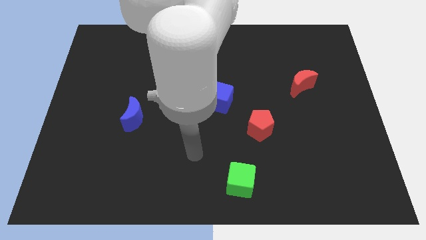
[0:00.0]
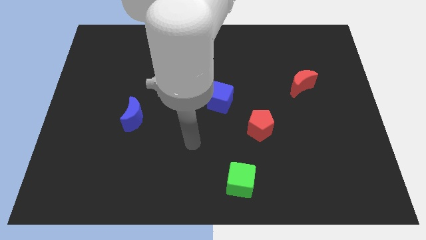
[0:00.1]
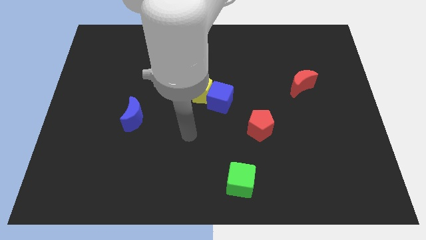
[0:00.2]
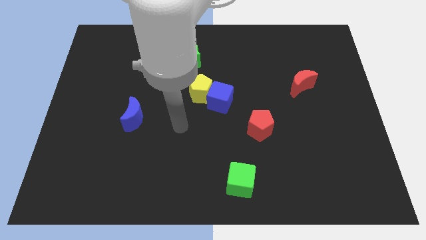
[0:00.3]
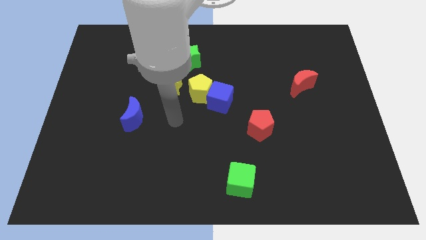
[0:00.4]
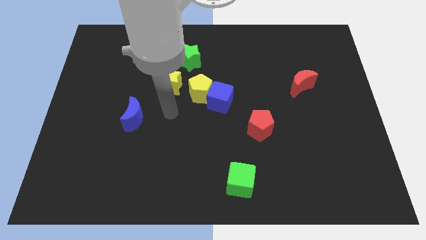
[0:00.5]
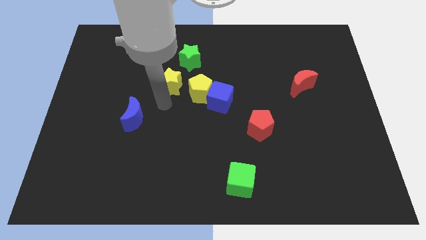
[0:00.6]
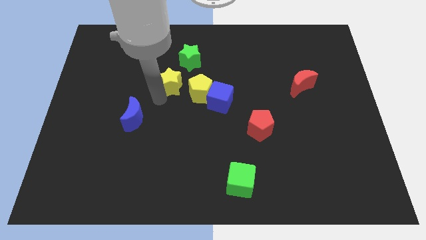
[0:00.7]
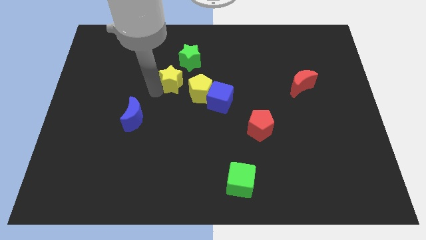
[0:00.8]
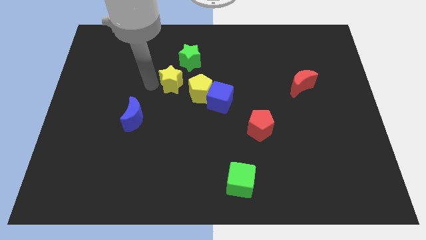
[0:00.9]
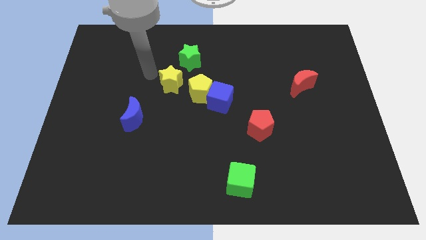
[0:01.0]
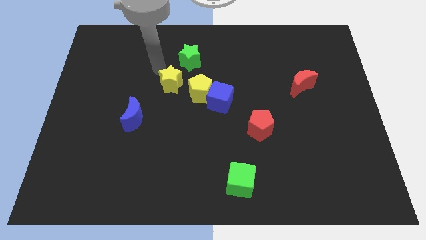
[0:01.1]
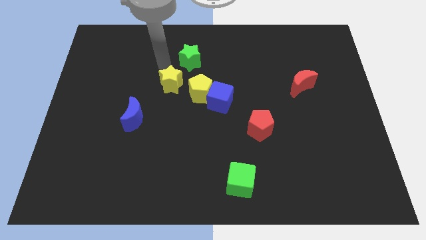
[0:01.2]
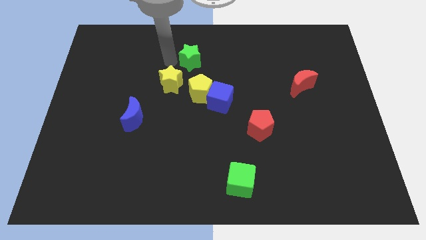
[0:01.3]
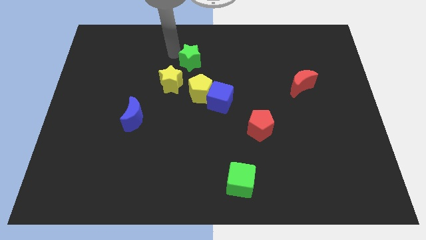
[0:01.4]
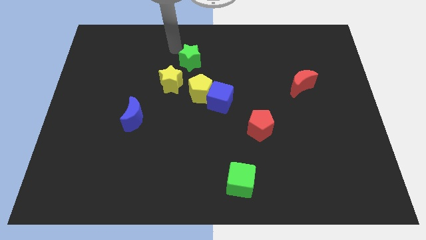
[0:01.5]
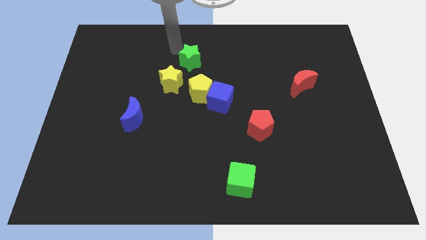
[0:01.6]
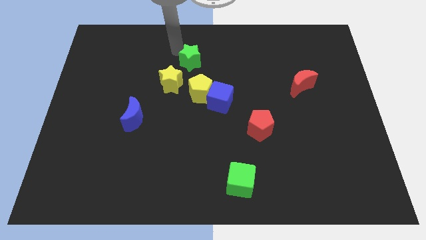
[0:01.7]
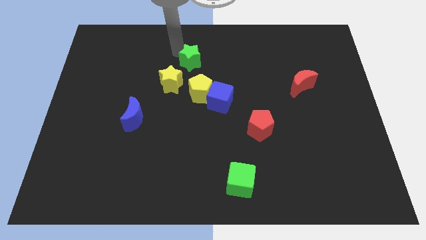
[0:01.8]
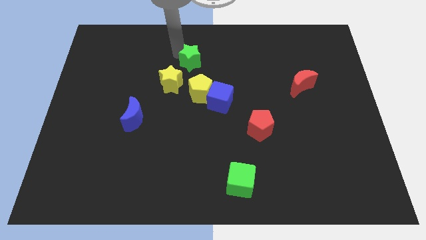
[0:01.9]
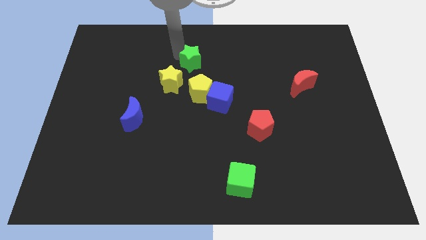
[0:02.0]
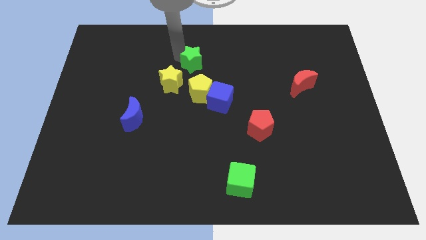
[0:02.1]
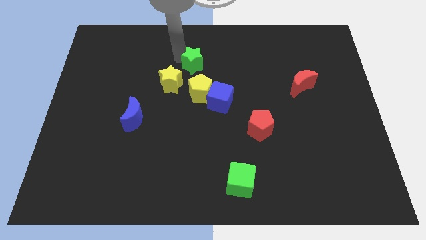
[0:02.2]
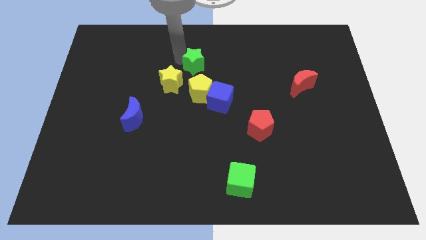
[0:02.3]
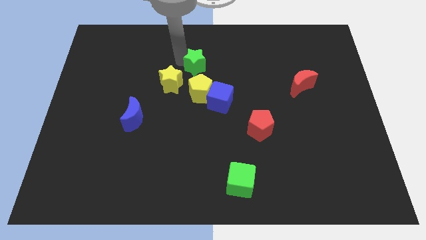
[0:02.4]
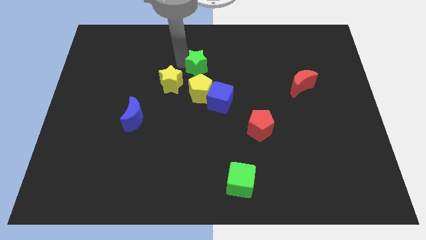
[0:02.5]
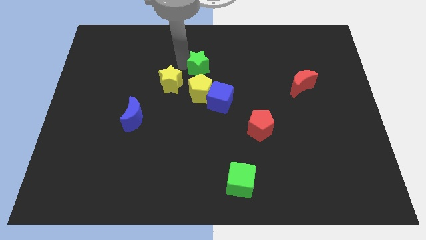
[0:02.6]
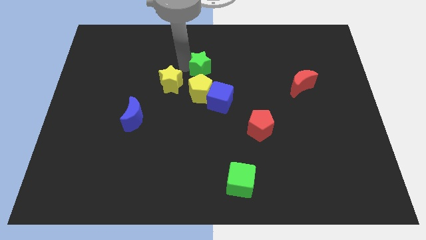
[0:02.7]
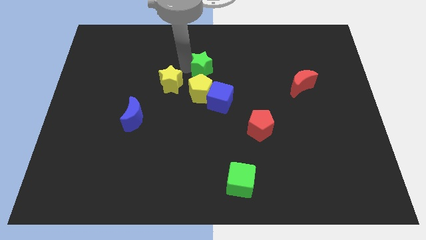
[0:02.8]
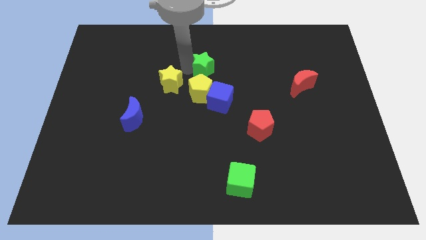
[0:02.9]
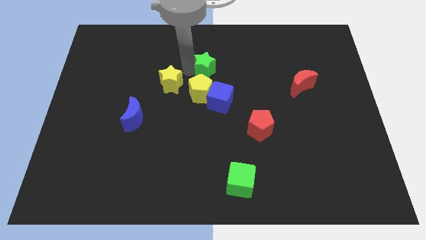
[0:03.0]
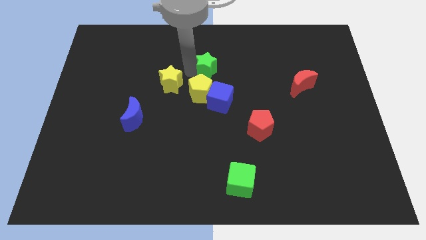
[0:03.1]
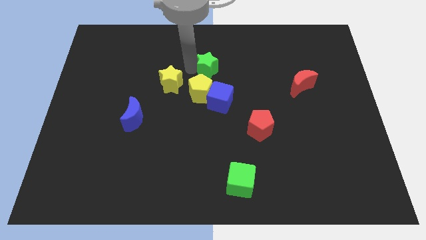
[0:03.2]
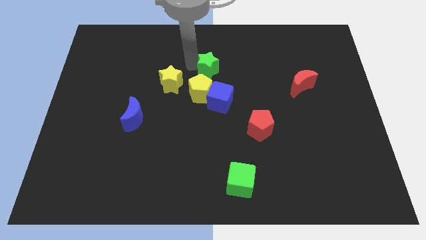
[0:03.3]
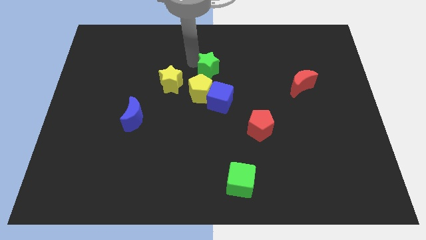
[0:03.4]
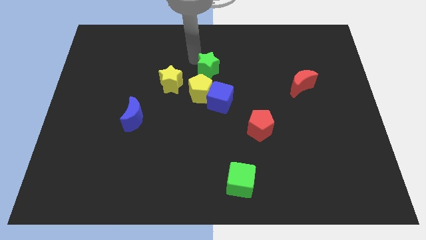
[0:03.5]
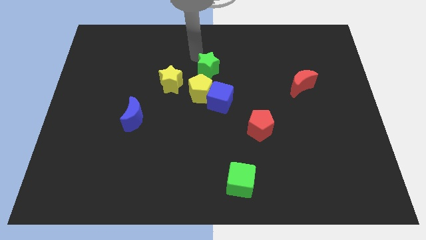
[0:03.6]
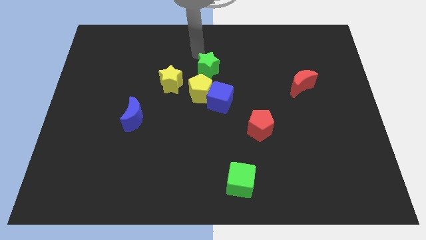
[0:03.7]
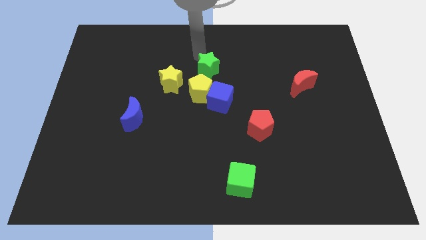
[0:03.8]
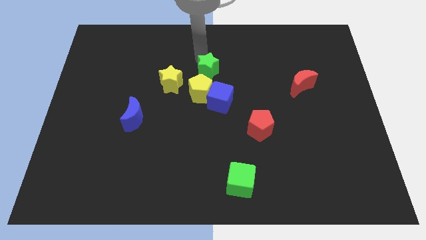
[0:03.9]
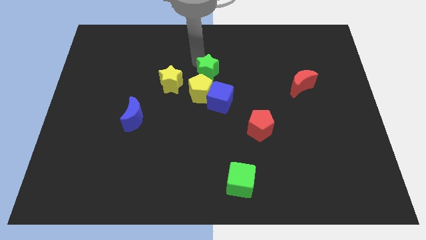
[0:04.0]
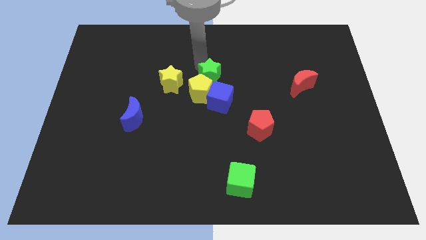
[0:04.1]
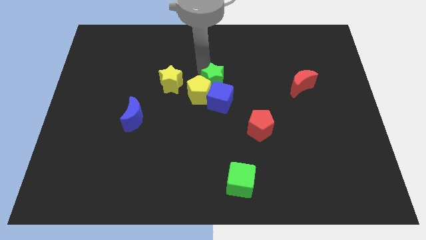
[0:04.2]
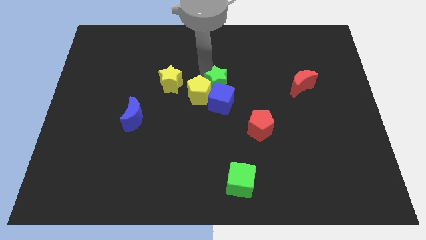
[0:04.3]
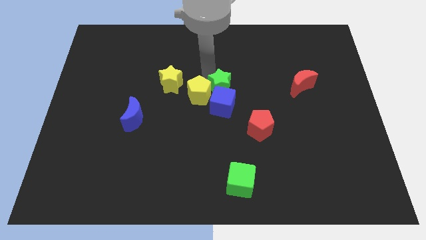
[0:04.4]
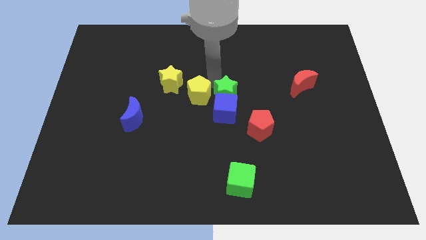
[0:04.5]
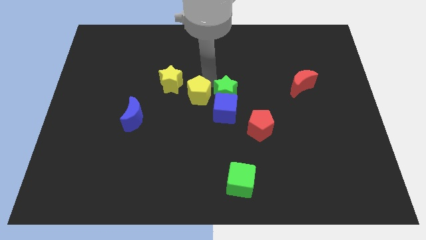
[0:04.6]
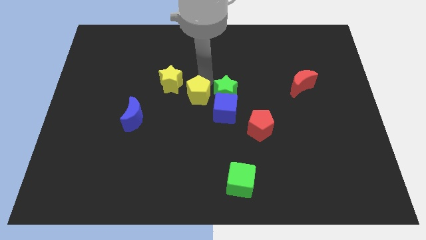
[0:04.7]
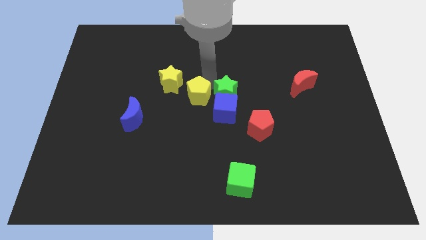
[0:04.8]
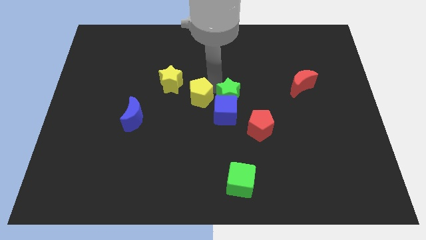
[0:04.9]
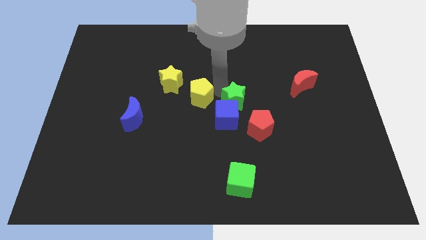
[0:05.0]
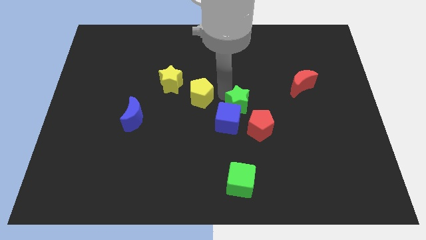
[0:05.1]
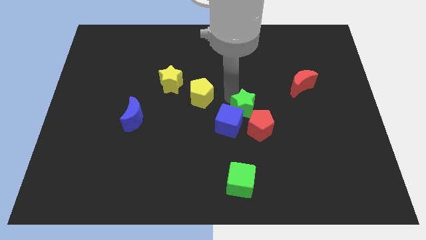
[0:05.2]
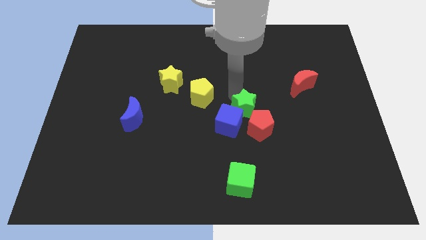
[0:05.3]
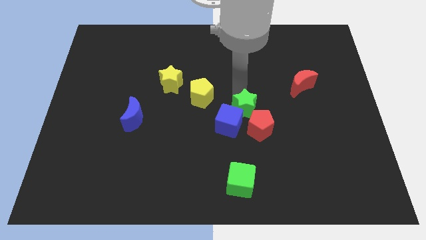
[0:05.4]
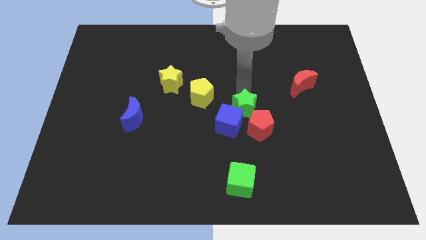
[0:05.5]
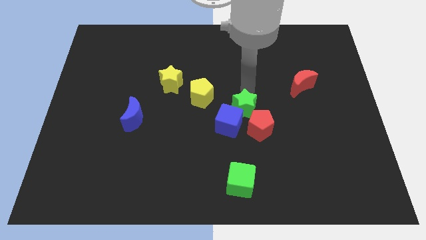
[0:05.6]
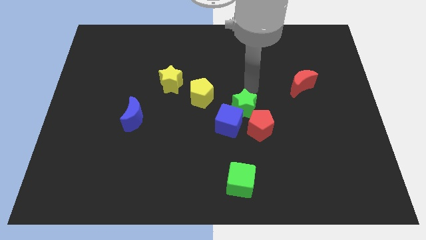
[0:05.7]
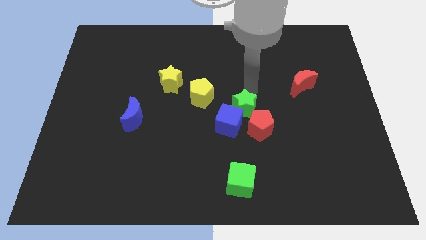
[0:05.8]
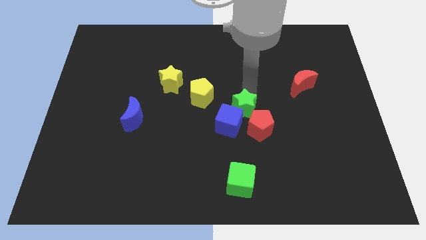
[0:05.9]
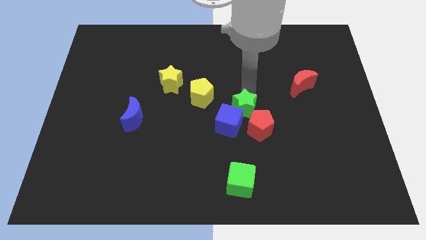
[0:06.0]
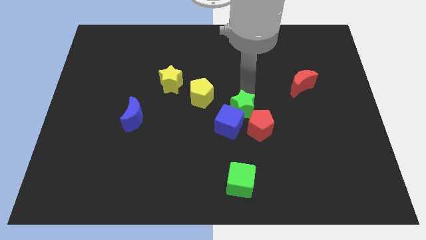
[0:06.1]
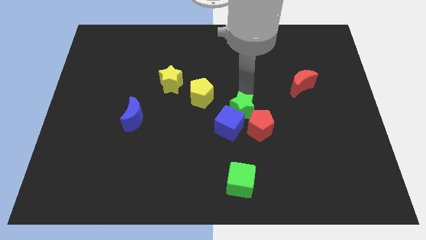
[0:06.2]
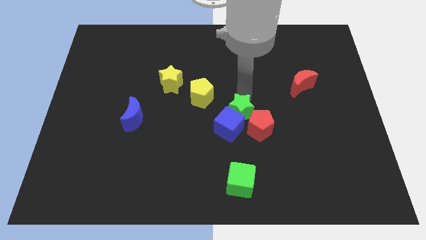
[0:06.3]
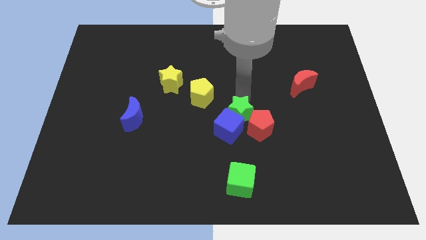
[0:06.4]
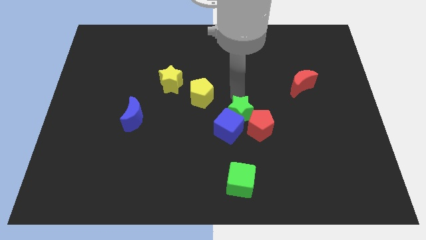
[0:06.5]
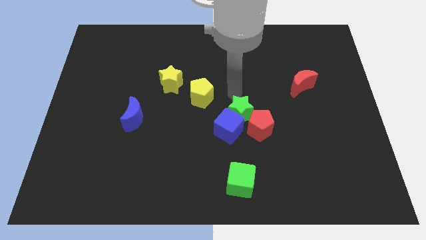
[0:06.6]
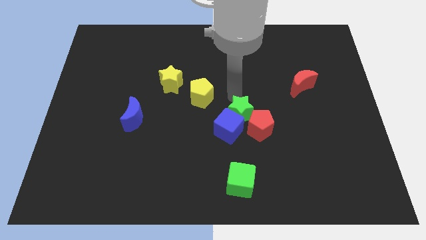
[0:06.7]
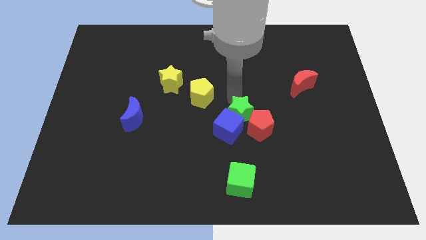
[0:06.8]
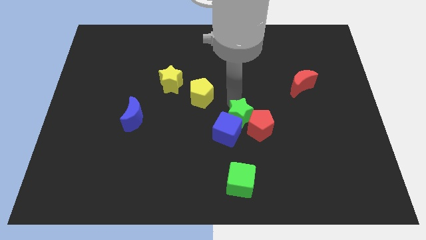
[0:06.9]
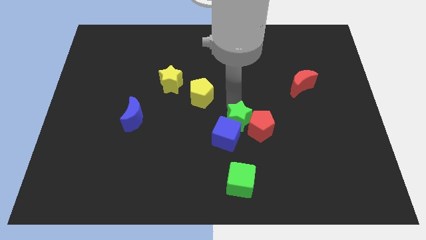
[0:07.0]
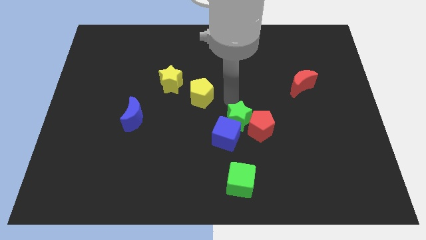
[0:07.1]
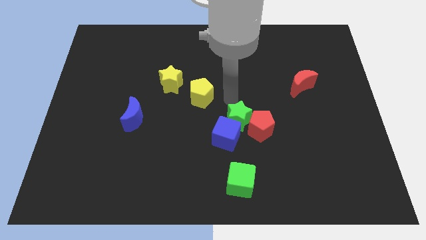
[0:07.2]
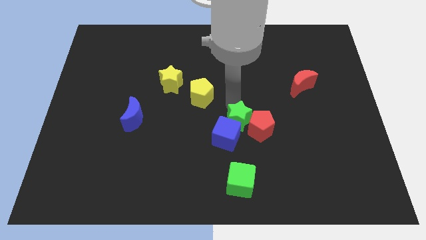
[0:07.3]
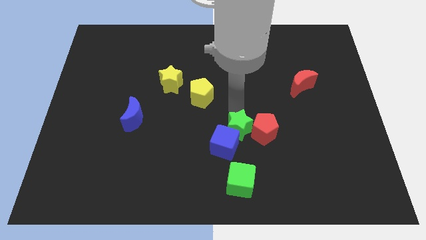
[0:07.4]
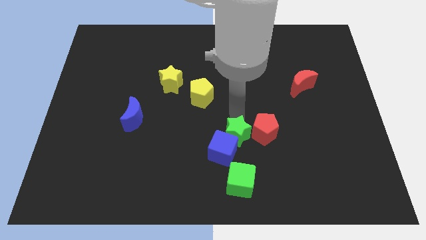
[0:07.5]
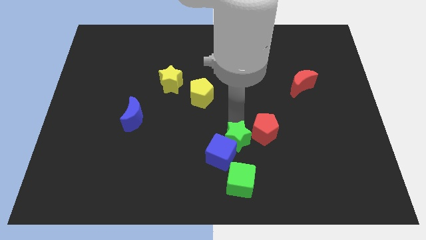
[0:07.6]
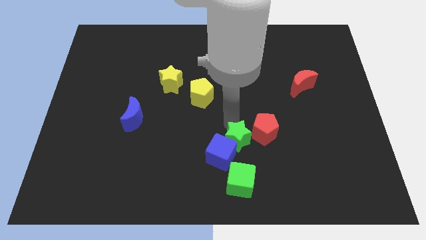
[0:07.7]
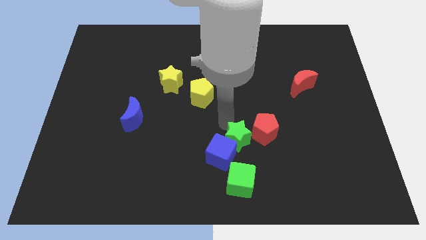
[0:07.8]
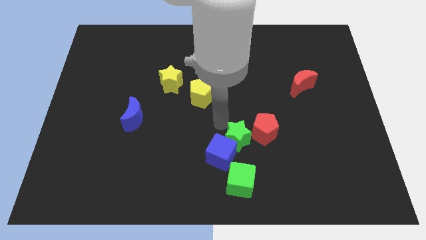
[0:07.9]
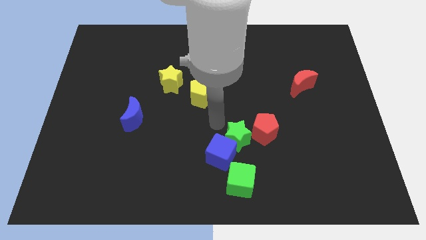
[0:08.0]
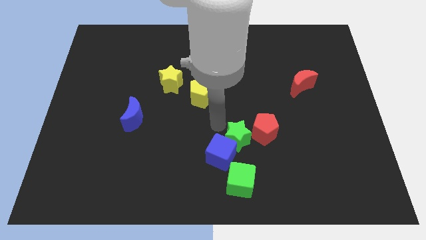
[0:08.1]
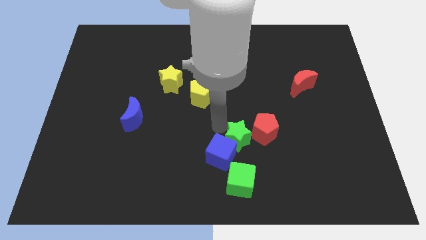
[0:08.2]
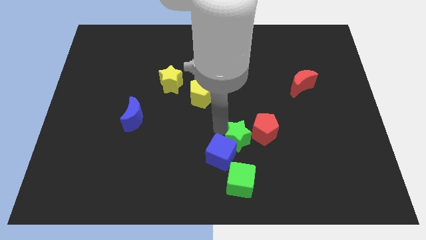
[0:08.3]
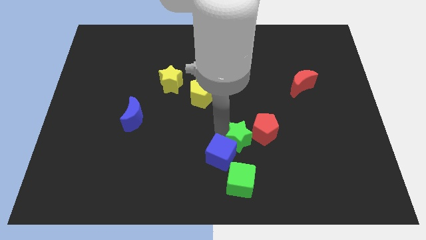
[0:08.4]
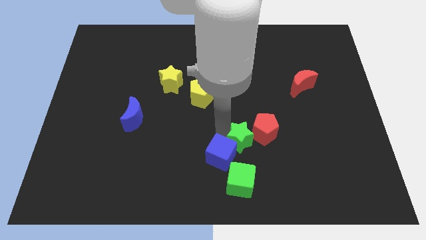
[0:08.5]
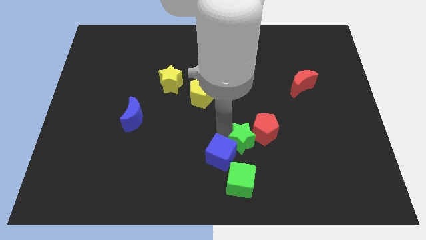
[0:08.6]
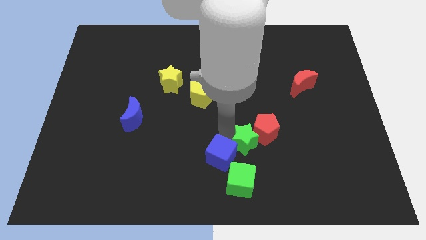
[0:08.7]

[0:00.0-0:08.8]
move the green star below the red pentagon
